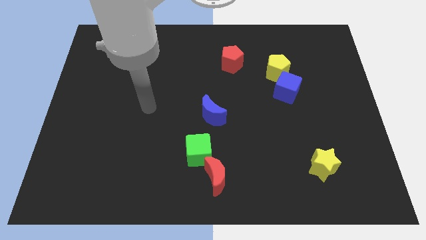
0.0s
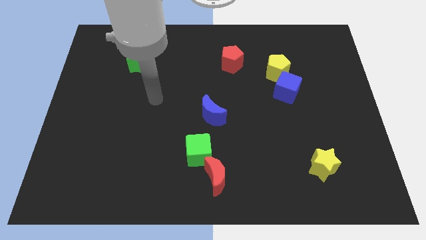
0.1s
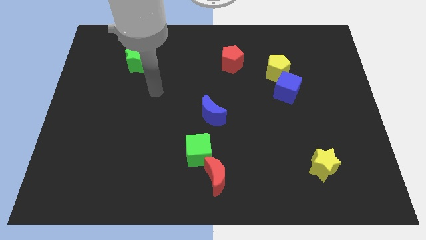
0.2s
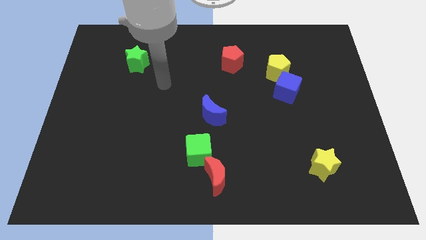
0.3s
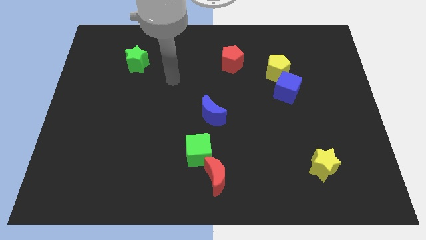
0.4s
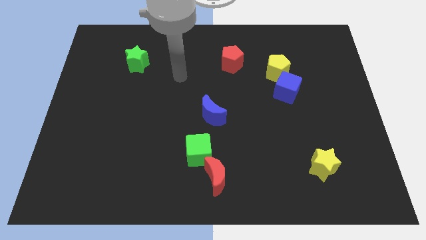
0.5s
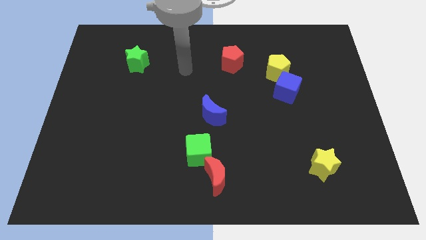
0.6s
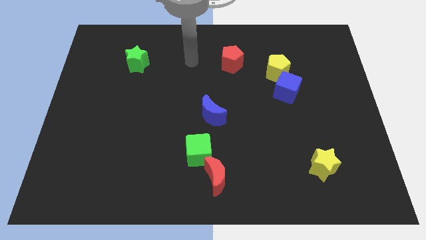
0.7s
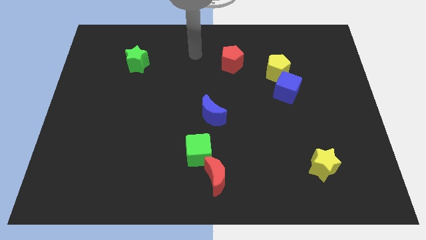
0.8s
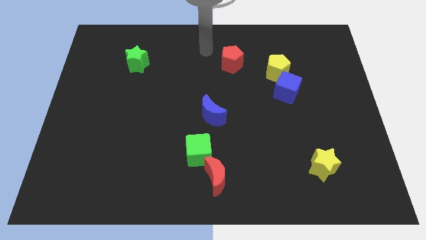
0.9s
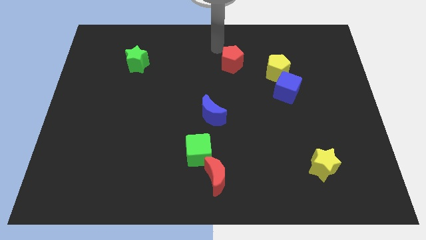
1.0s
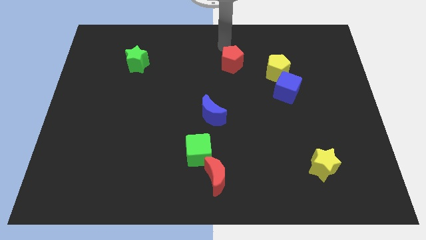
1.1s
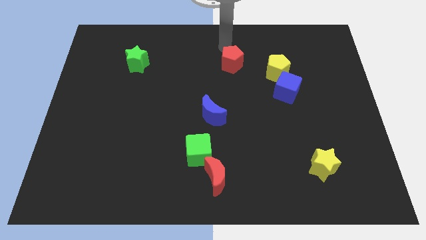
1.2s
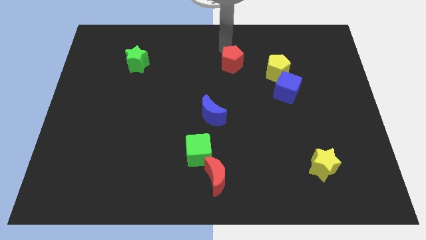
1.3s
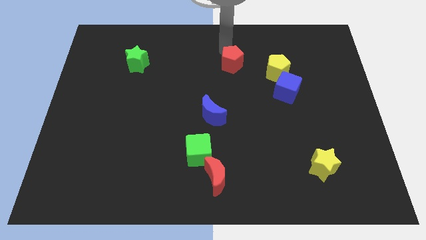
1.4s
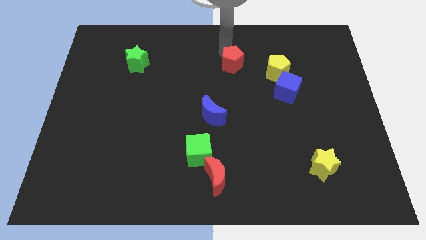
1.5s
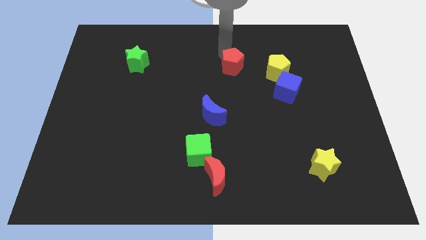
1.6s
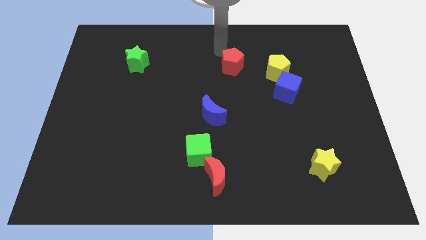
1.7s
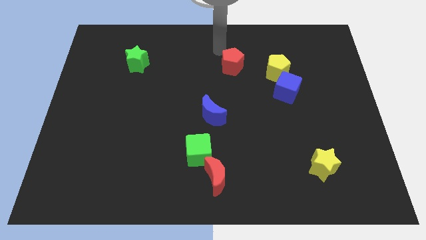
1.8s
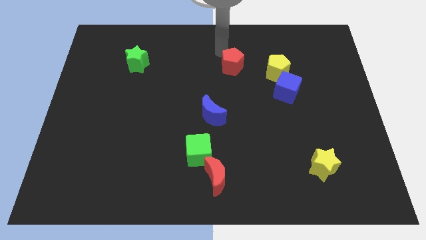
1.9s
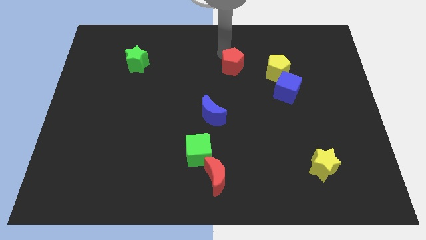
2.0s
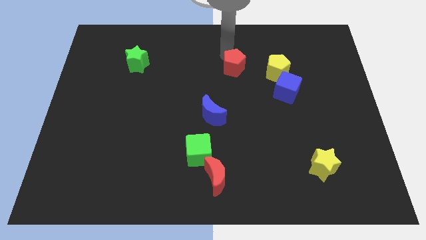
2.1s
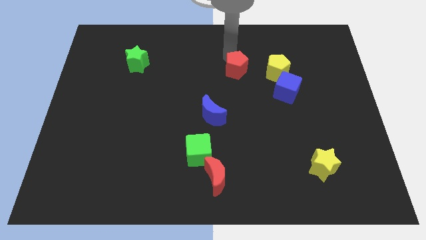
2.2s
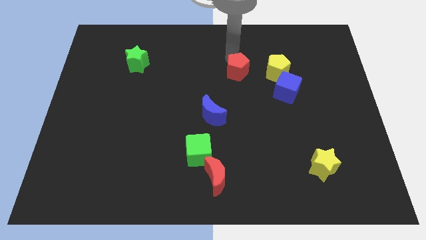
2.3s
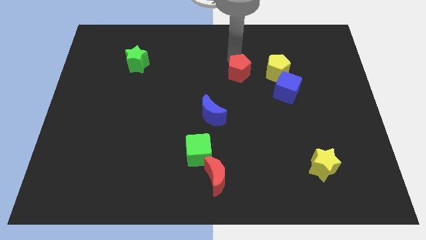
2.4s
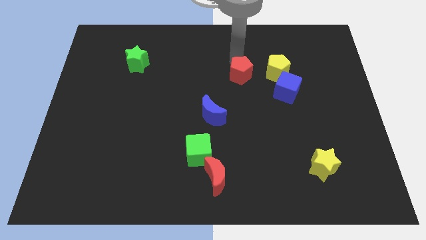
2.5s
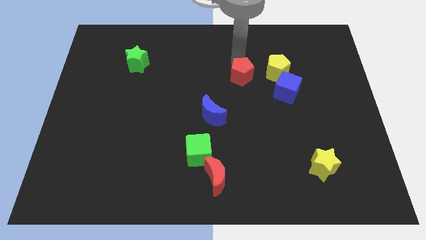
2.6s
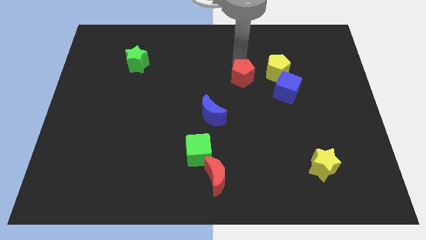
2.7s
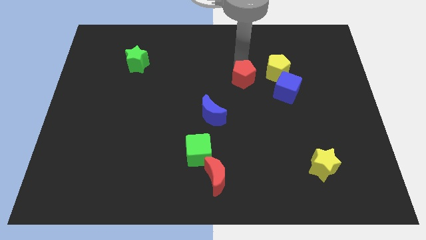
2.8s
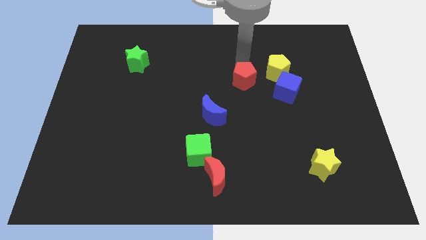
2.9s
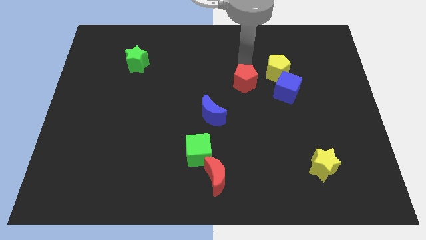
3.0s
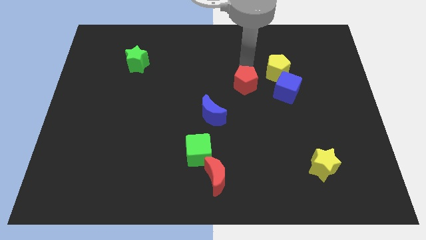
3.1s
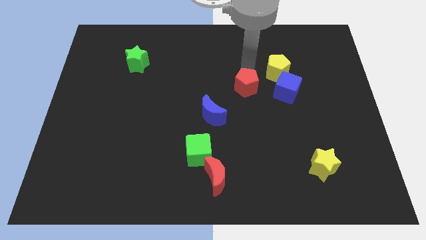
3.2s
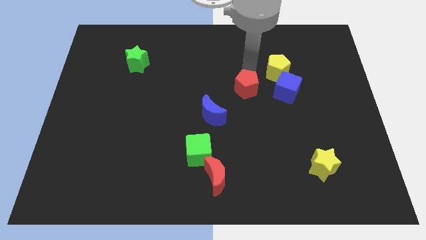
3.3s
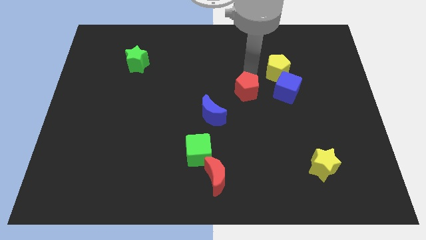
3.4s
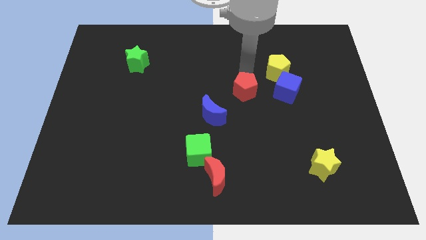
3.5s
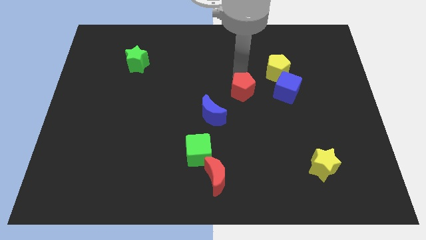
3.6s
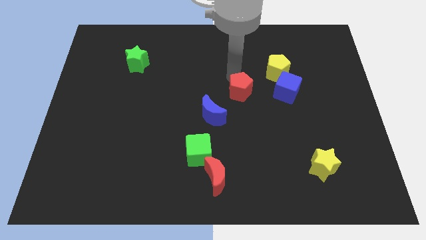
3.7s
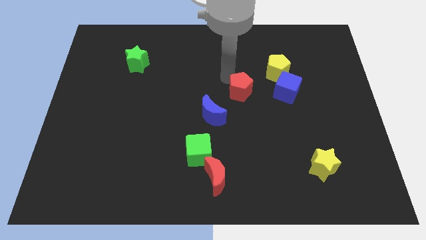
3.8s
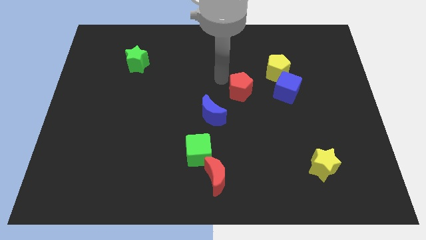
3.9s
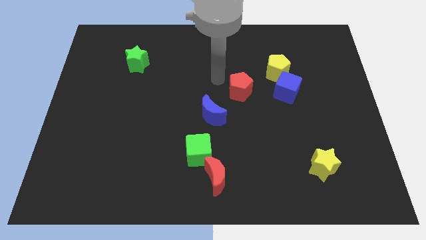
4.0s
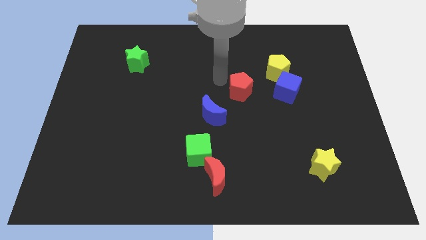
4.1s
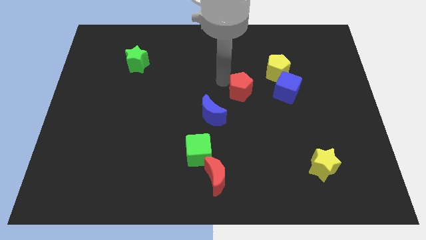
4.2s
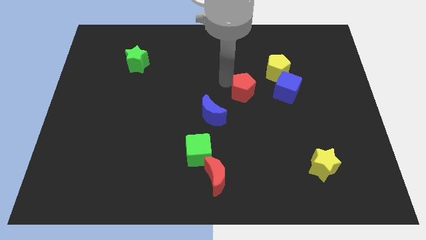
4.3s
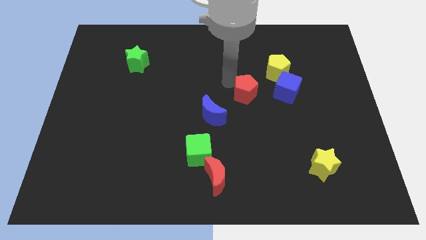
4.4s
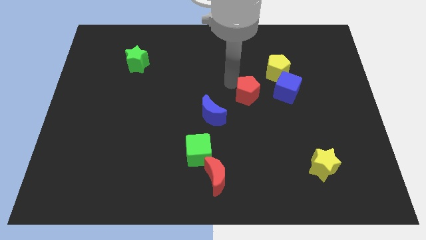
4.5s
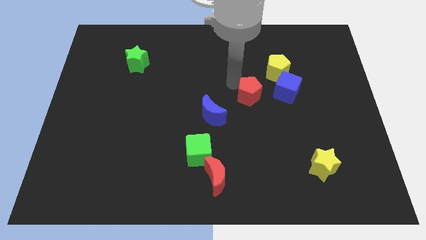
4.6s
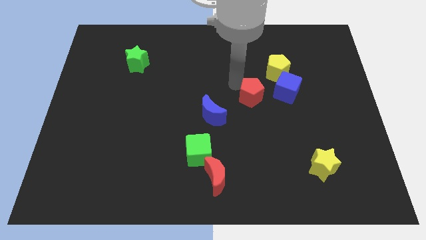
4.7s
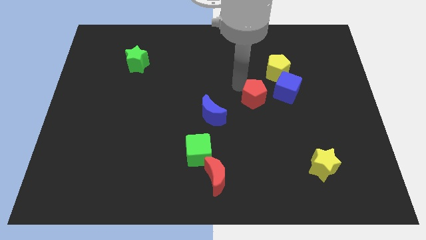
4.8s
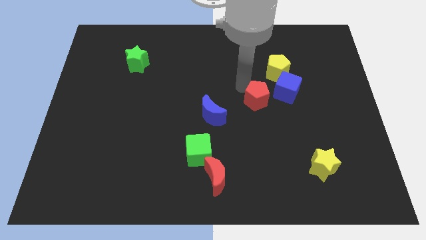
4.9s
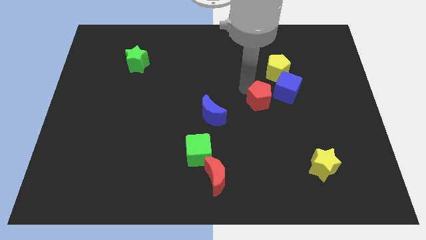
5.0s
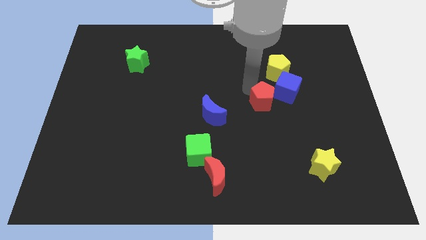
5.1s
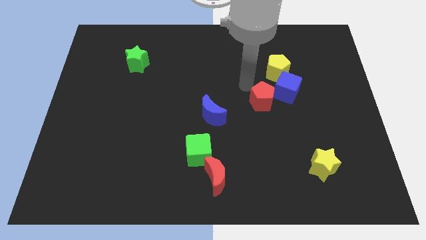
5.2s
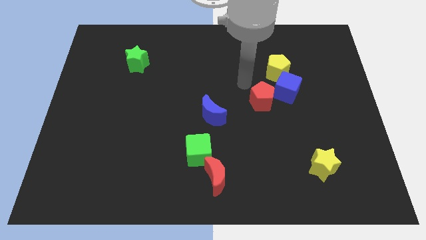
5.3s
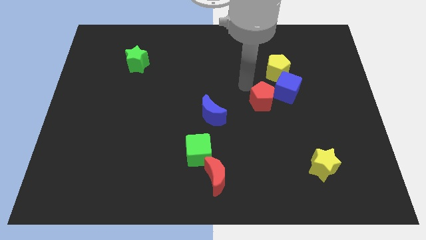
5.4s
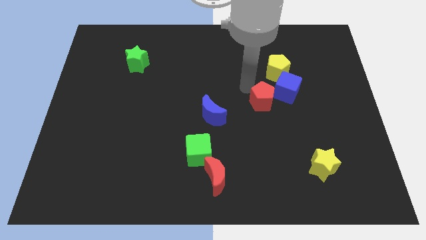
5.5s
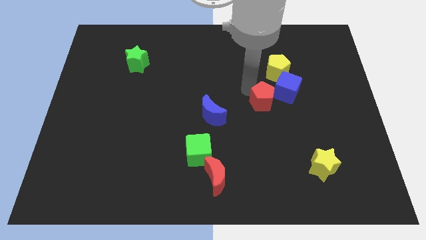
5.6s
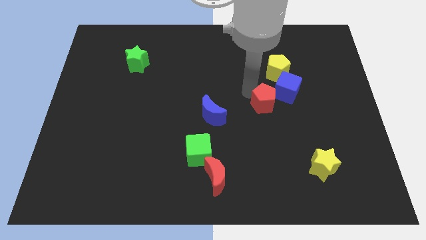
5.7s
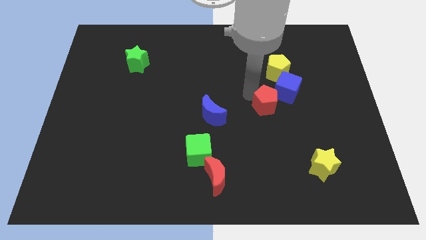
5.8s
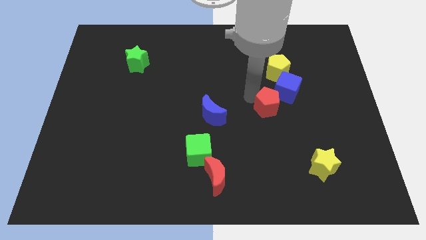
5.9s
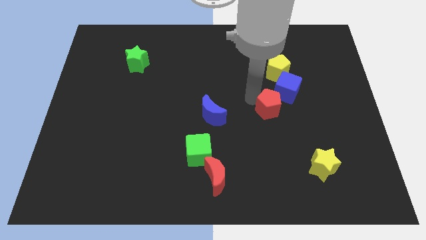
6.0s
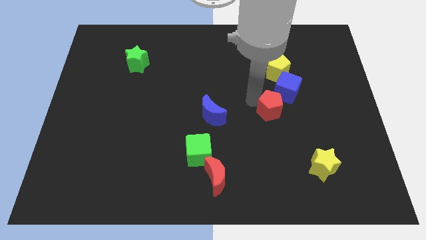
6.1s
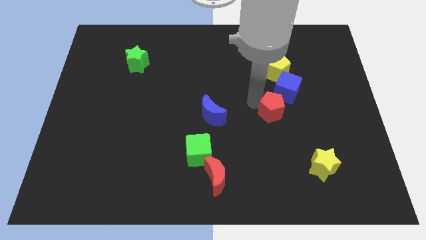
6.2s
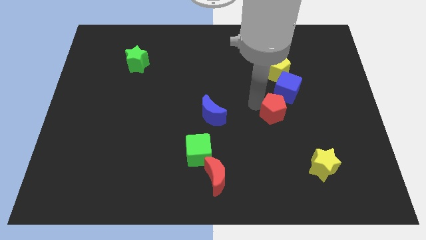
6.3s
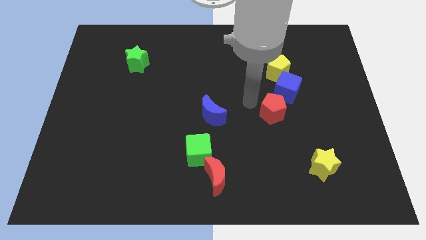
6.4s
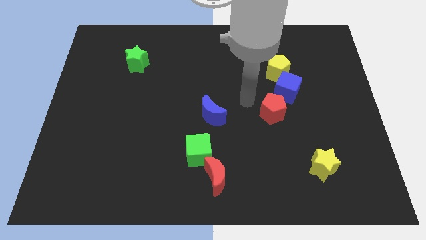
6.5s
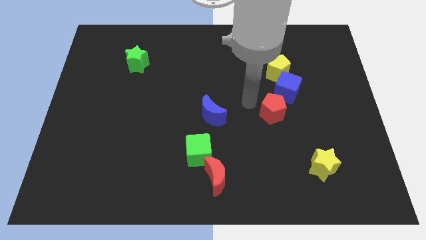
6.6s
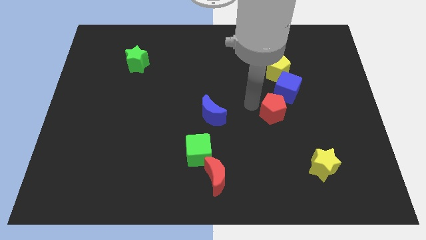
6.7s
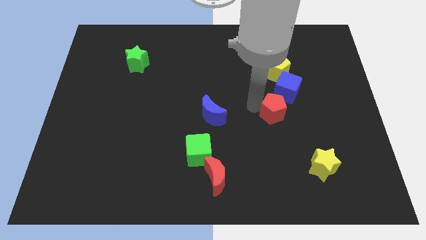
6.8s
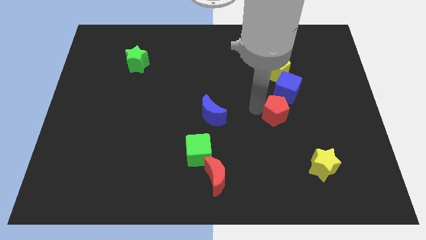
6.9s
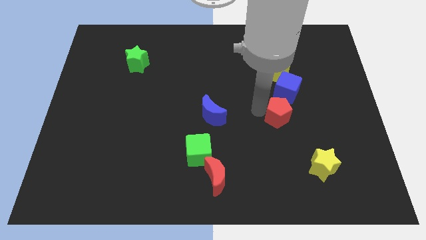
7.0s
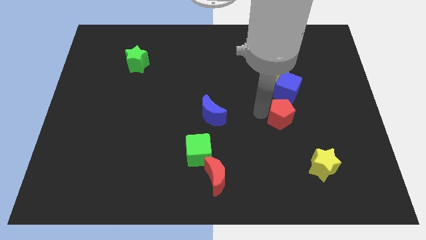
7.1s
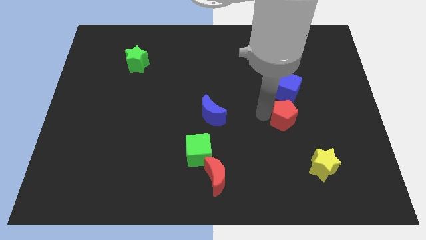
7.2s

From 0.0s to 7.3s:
move the red pentagon downwards and right

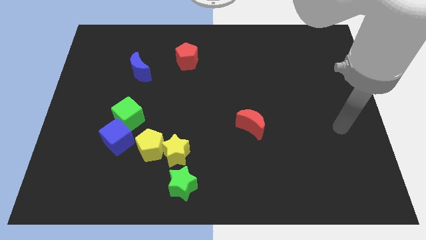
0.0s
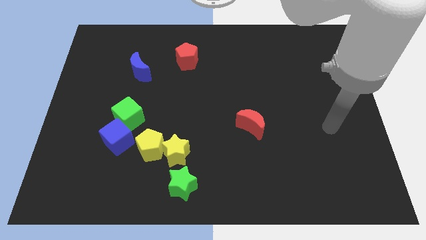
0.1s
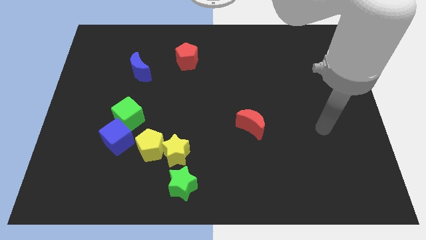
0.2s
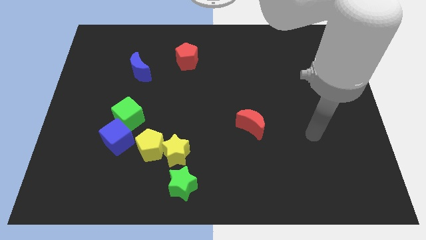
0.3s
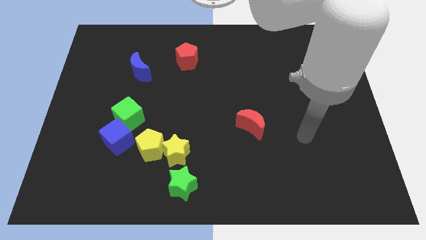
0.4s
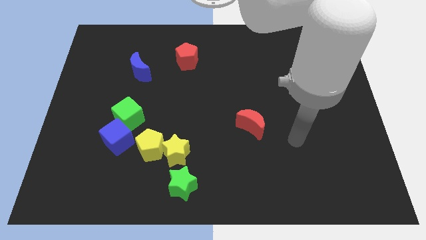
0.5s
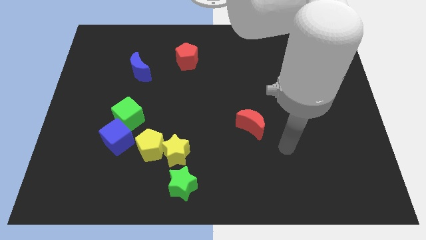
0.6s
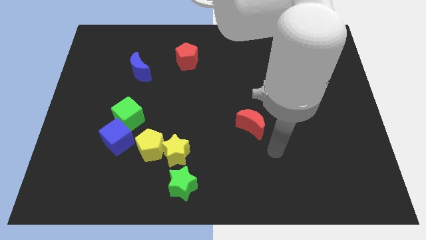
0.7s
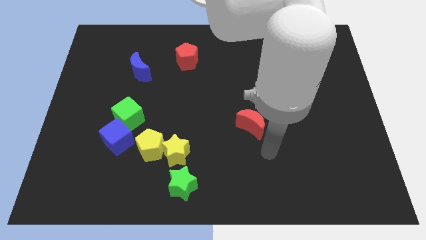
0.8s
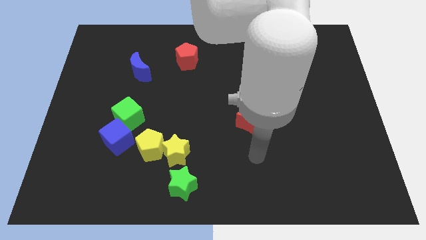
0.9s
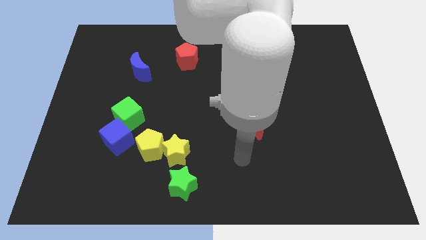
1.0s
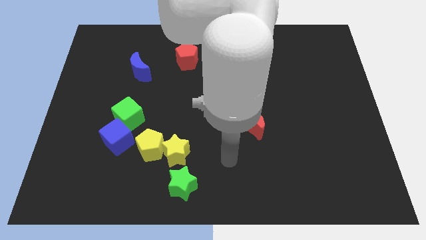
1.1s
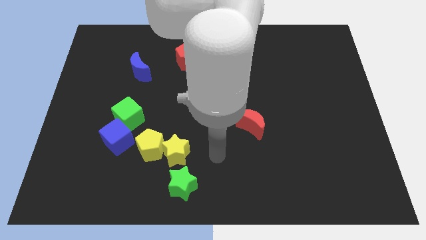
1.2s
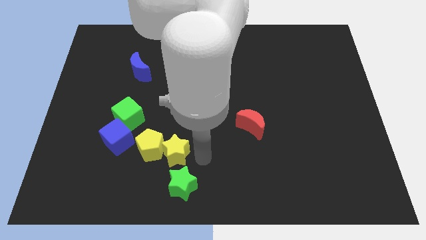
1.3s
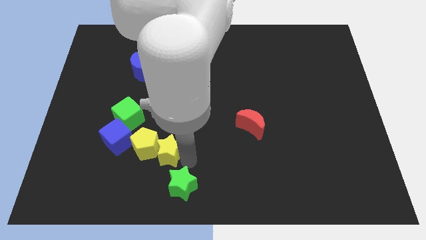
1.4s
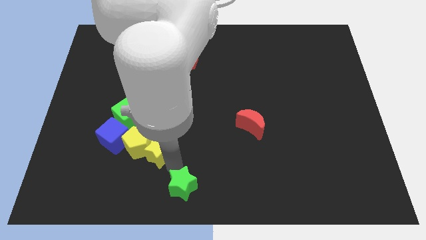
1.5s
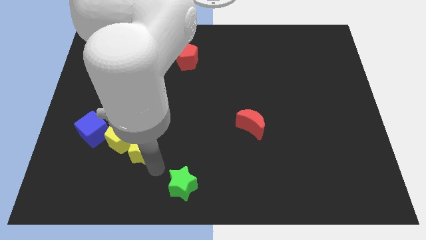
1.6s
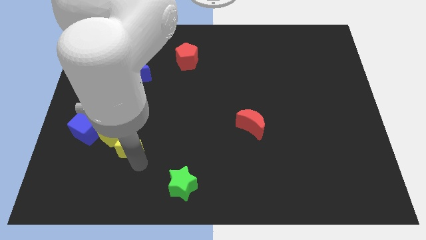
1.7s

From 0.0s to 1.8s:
slightly slide the yellow pentagon up and to the left diagonally
